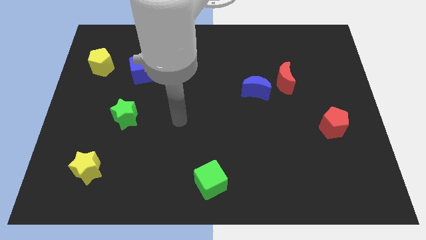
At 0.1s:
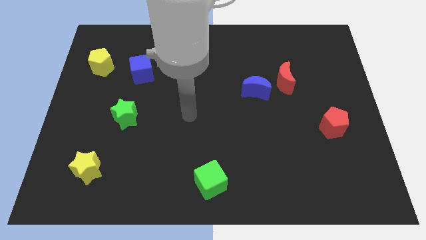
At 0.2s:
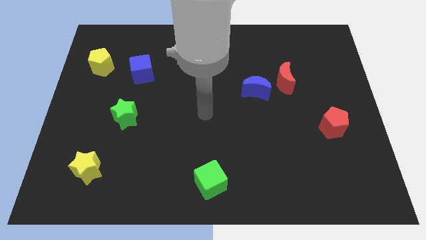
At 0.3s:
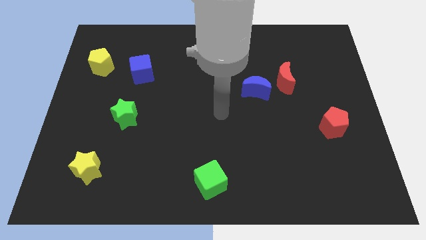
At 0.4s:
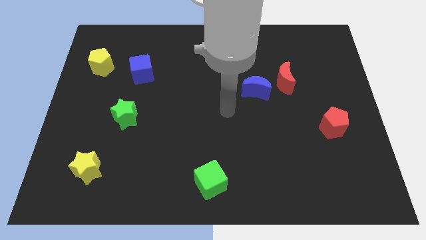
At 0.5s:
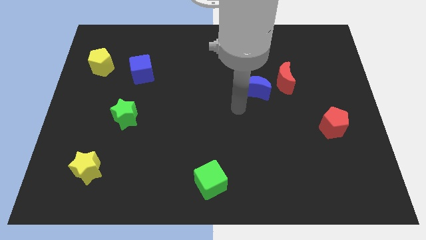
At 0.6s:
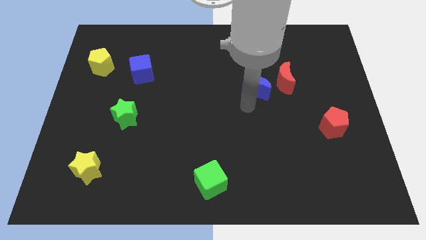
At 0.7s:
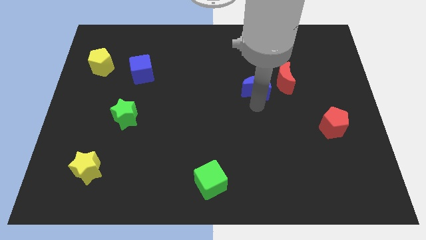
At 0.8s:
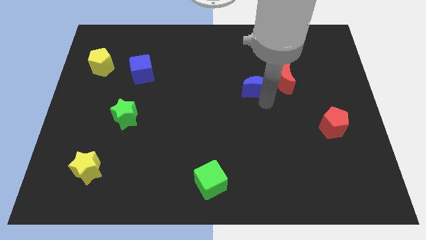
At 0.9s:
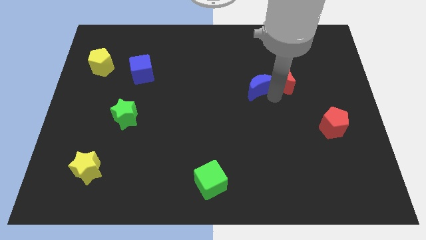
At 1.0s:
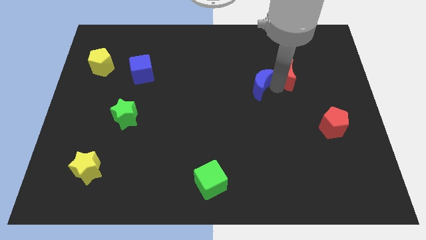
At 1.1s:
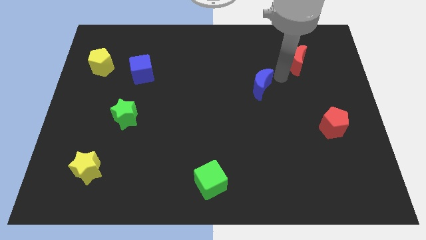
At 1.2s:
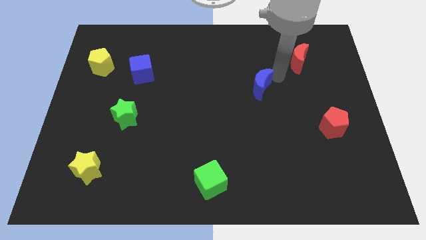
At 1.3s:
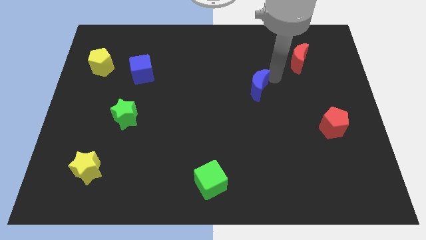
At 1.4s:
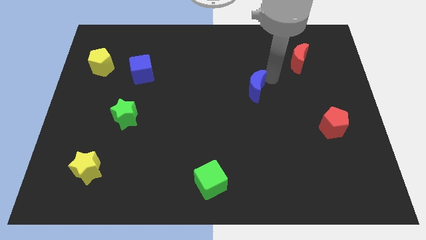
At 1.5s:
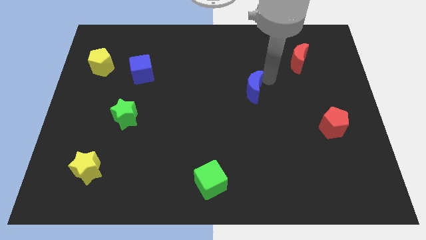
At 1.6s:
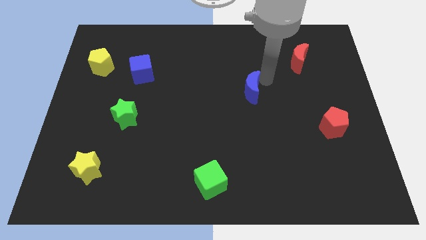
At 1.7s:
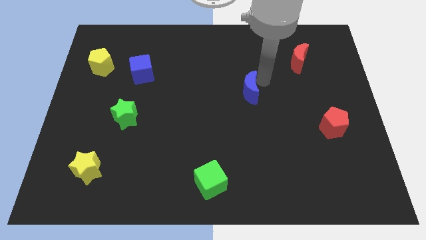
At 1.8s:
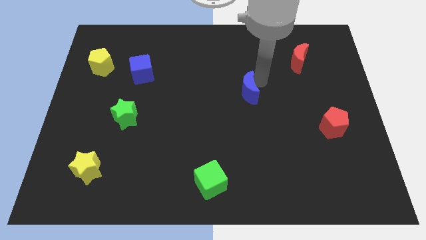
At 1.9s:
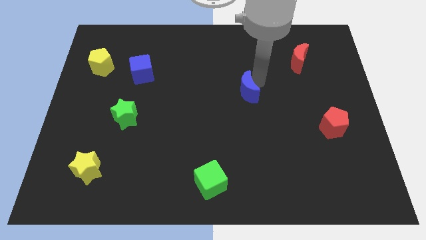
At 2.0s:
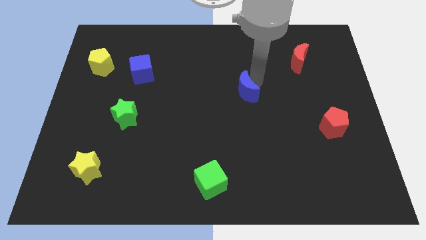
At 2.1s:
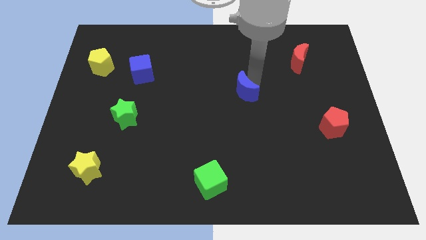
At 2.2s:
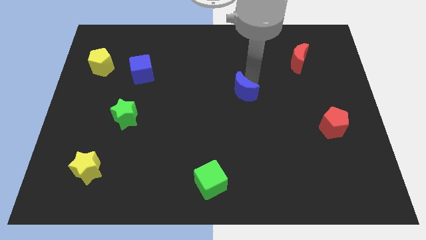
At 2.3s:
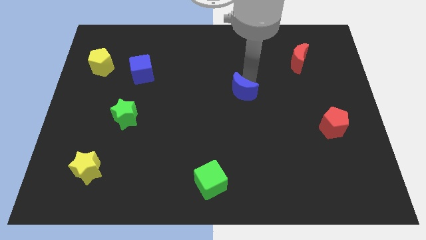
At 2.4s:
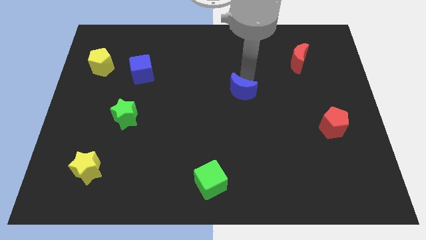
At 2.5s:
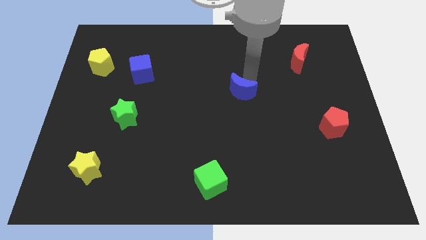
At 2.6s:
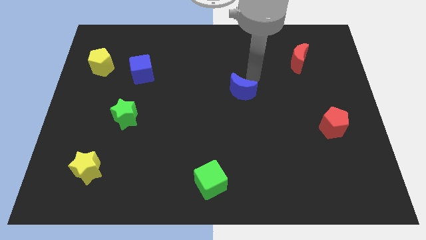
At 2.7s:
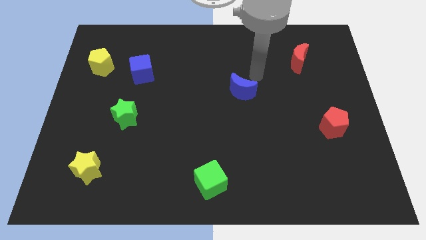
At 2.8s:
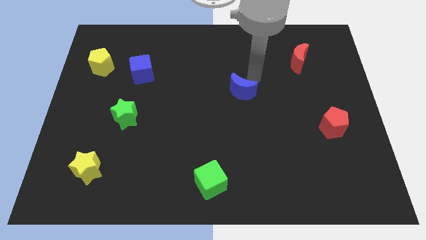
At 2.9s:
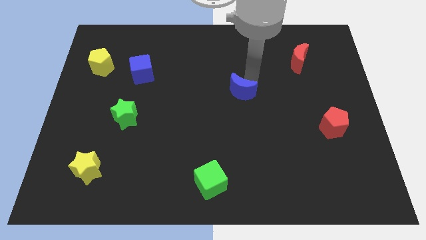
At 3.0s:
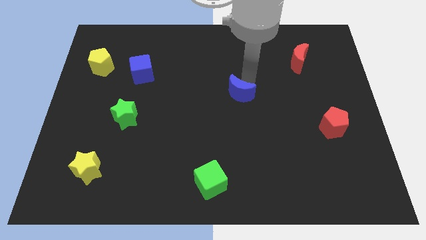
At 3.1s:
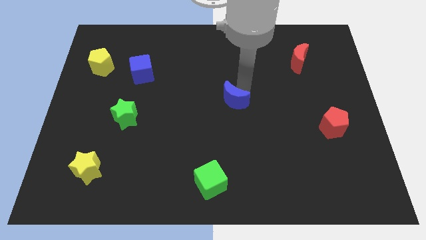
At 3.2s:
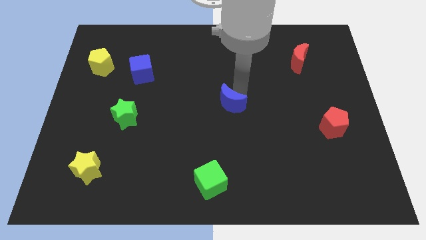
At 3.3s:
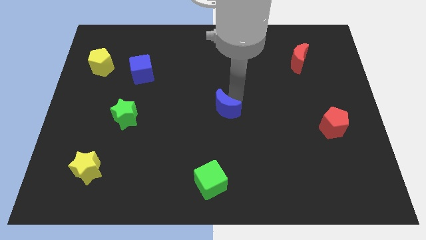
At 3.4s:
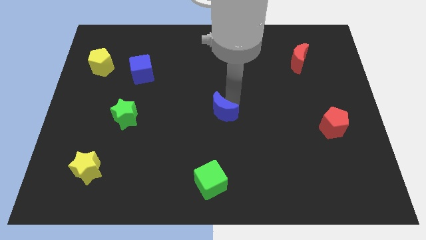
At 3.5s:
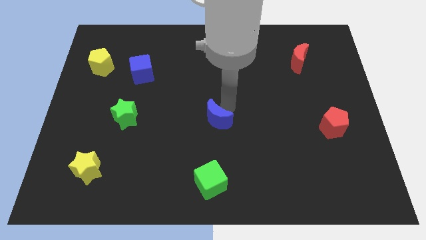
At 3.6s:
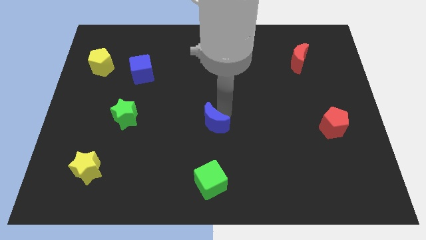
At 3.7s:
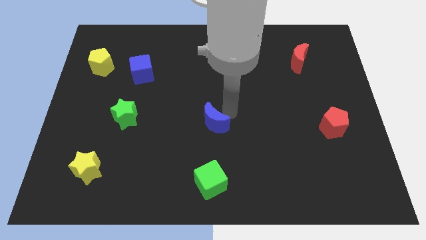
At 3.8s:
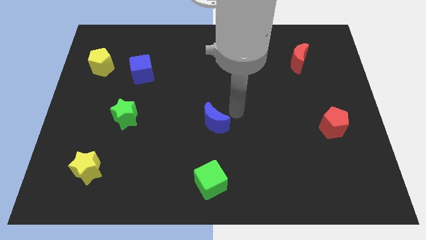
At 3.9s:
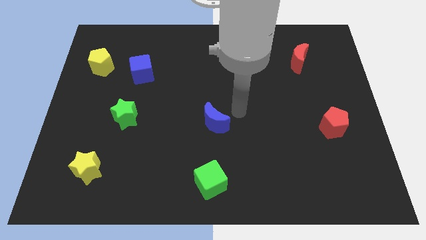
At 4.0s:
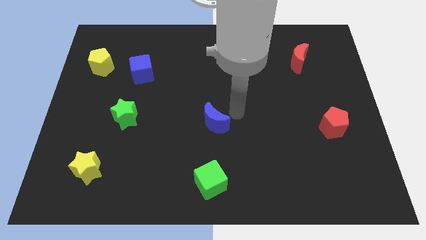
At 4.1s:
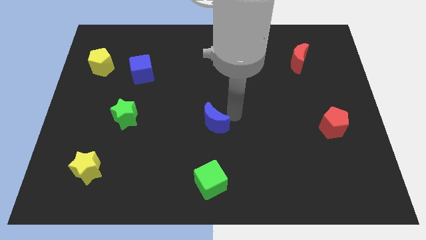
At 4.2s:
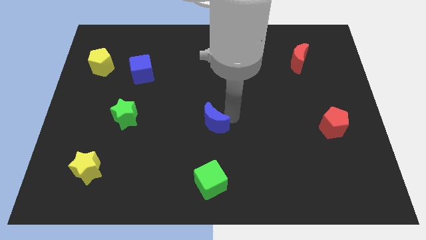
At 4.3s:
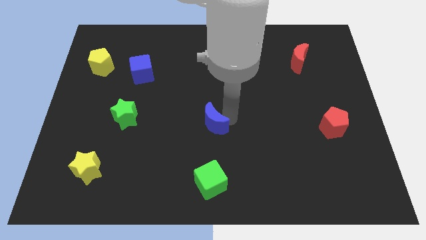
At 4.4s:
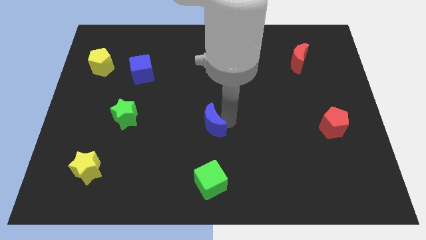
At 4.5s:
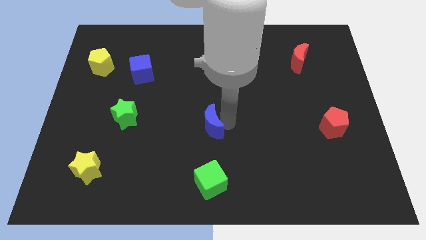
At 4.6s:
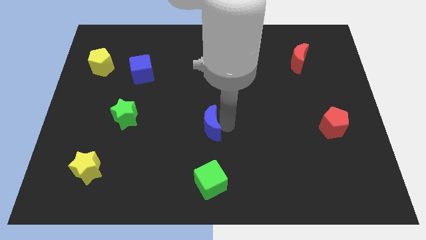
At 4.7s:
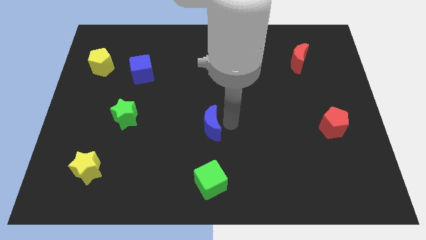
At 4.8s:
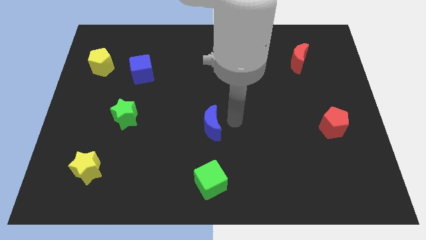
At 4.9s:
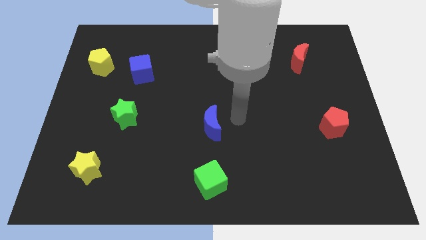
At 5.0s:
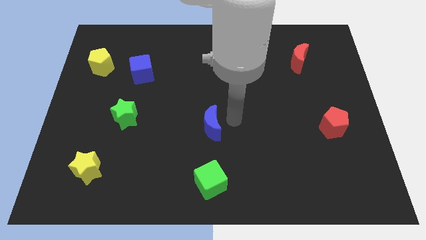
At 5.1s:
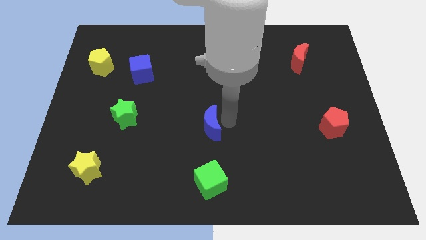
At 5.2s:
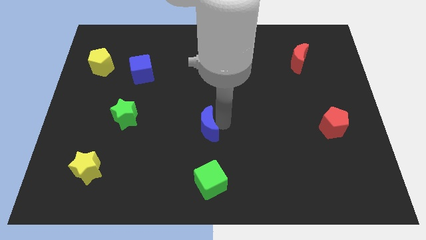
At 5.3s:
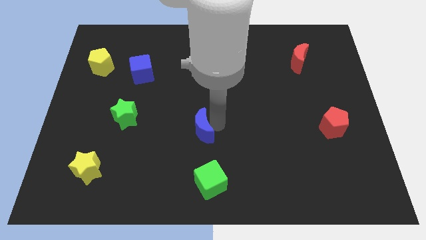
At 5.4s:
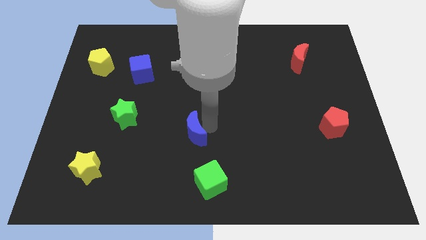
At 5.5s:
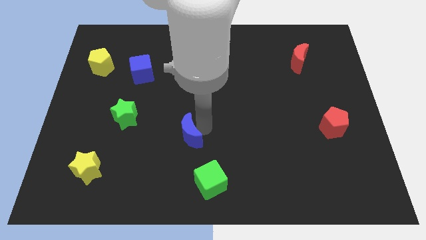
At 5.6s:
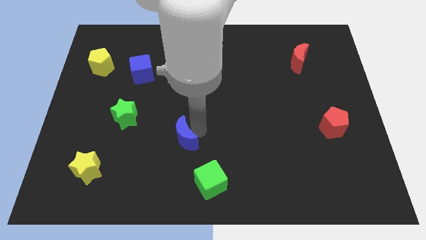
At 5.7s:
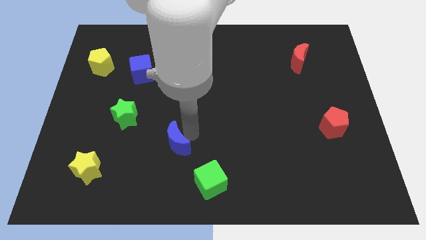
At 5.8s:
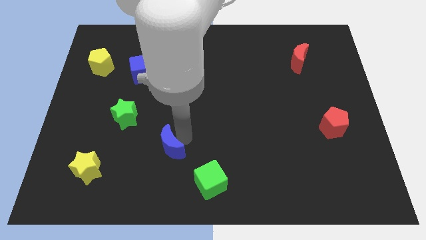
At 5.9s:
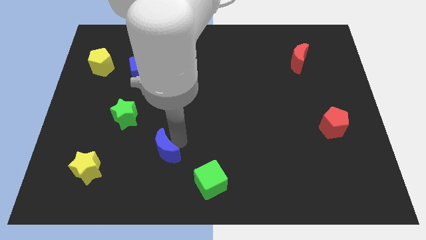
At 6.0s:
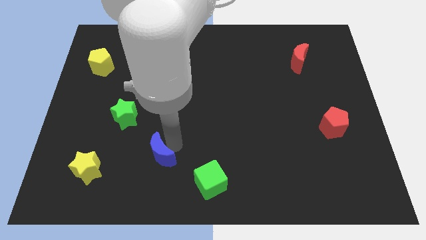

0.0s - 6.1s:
push the blue moon just right of the yellow star

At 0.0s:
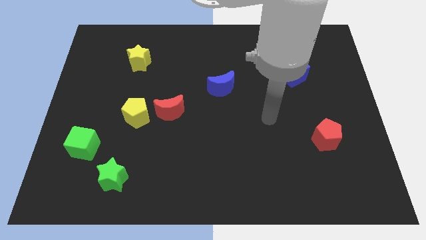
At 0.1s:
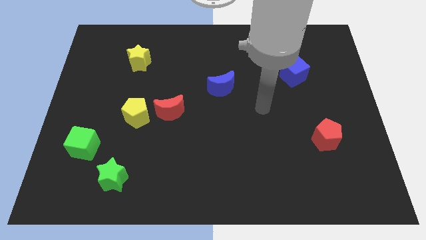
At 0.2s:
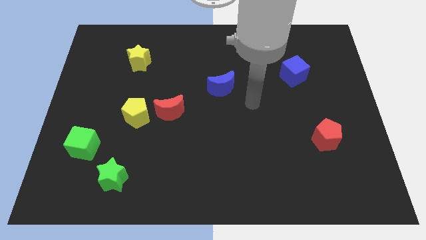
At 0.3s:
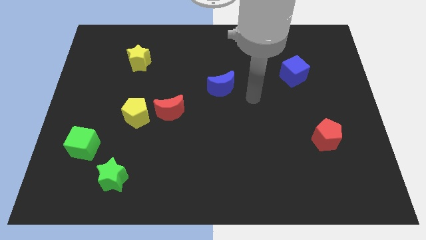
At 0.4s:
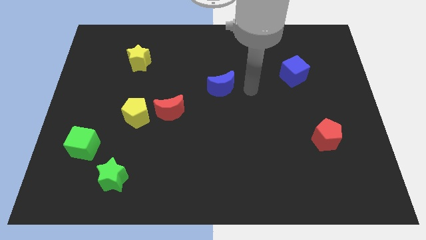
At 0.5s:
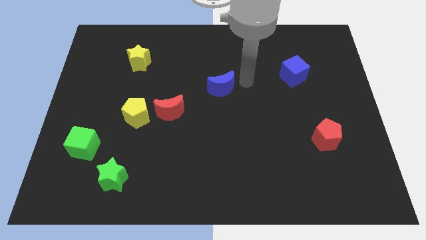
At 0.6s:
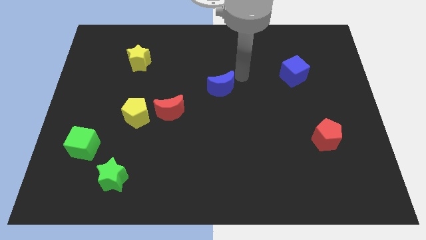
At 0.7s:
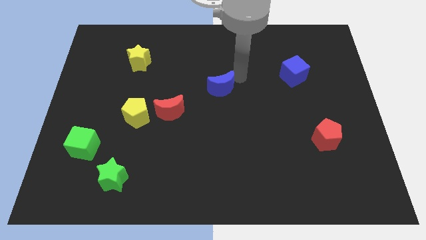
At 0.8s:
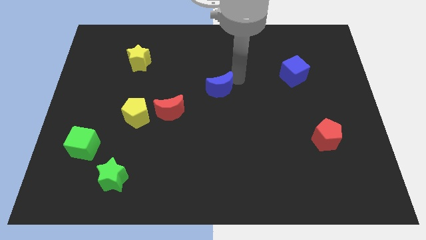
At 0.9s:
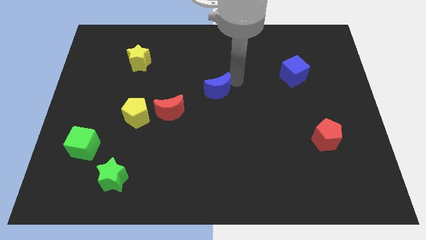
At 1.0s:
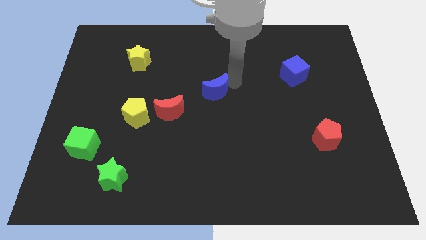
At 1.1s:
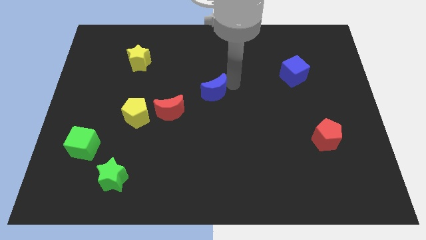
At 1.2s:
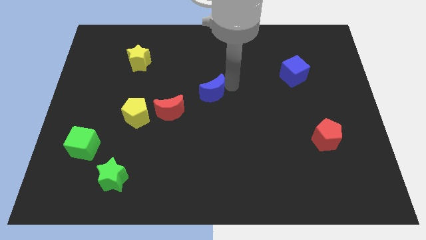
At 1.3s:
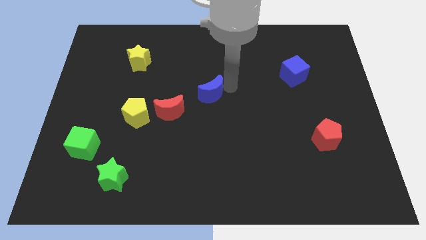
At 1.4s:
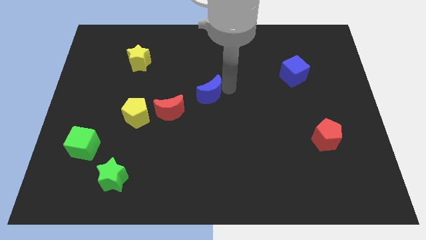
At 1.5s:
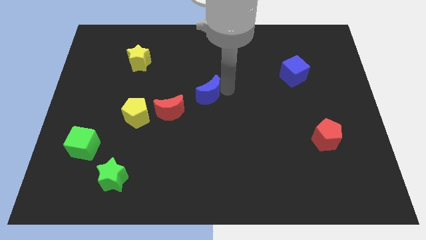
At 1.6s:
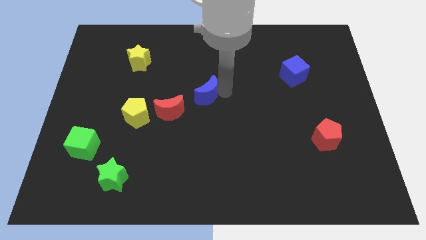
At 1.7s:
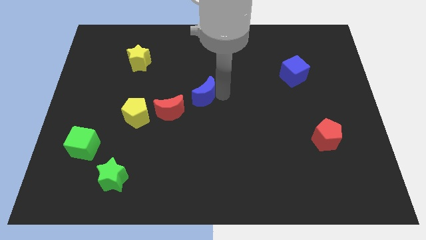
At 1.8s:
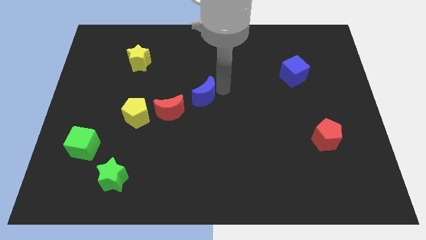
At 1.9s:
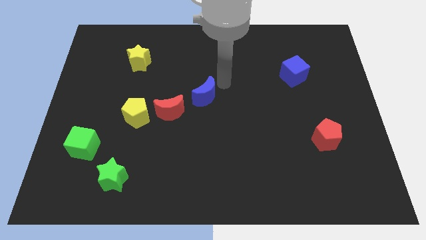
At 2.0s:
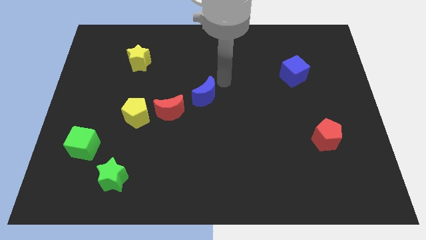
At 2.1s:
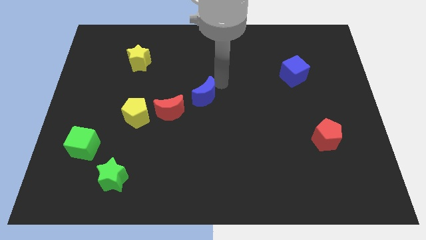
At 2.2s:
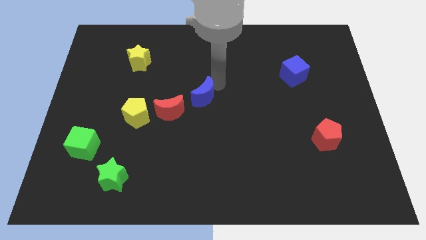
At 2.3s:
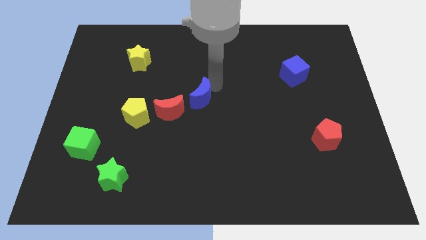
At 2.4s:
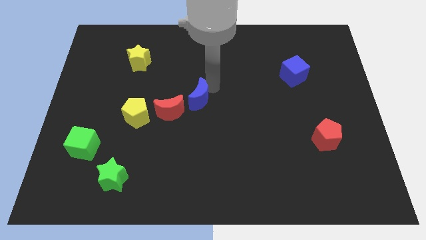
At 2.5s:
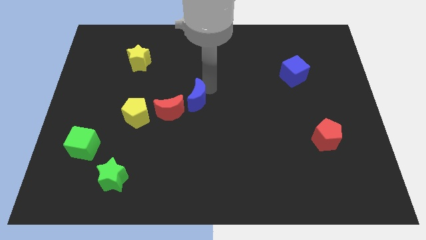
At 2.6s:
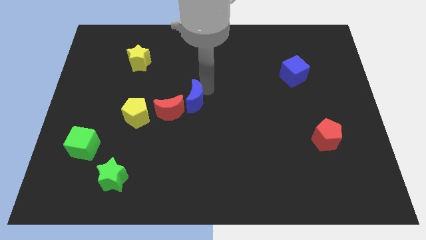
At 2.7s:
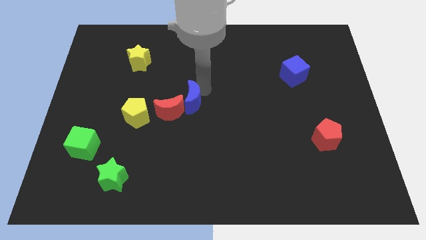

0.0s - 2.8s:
move the blue moon right of the yellow pentagon
